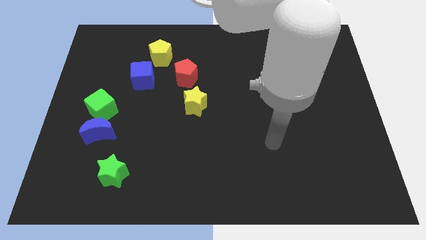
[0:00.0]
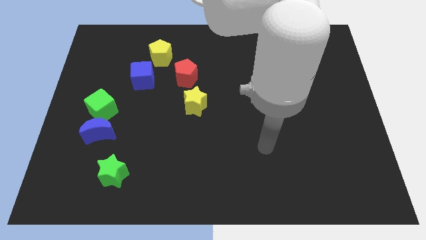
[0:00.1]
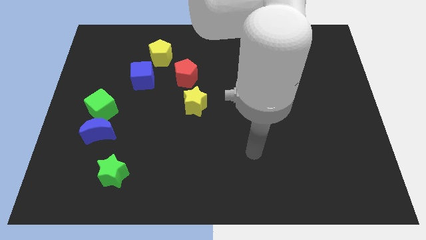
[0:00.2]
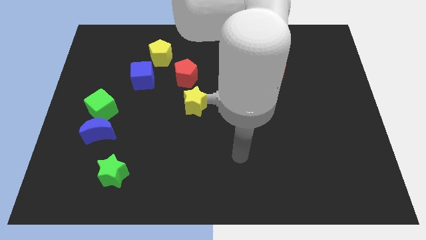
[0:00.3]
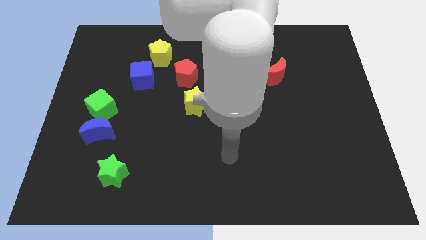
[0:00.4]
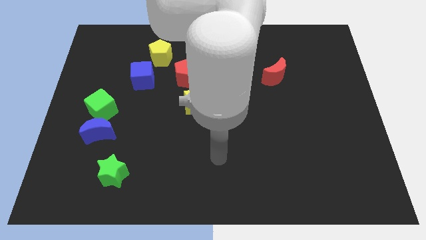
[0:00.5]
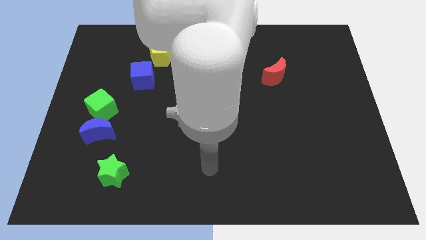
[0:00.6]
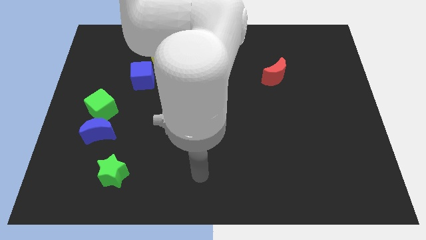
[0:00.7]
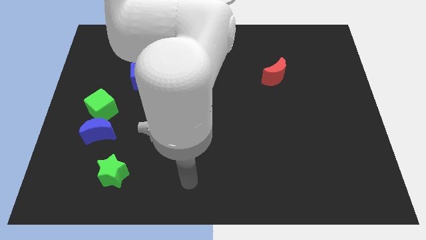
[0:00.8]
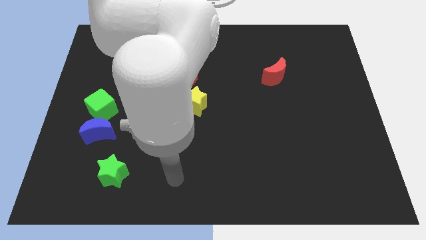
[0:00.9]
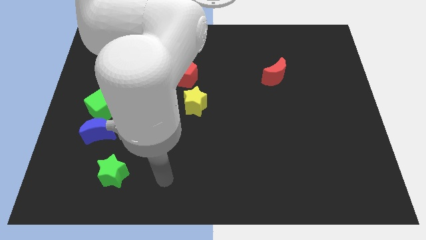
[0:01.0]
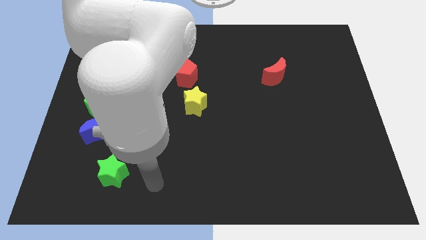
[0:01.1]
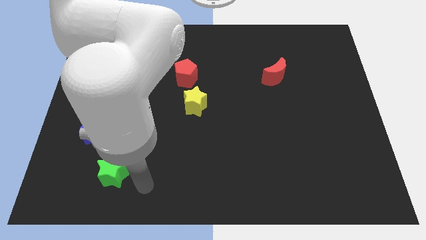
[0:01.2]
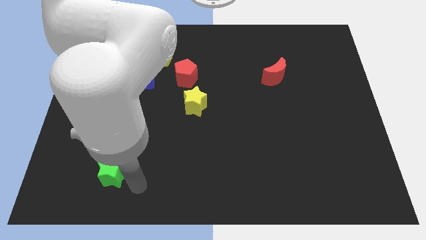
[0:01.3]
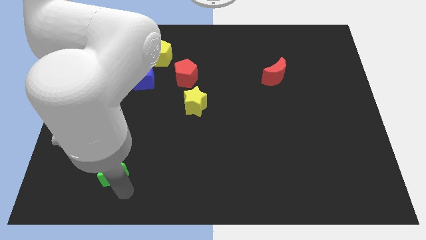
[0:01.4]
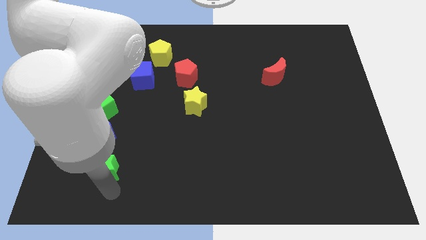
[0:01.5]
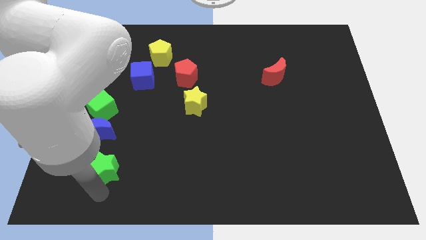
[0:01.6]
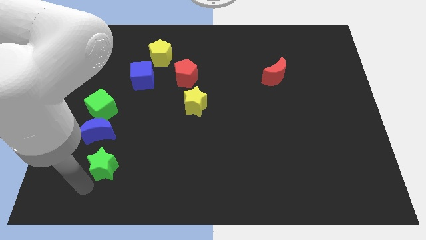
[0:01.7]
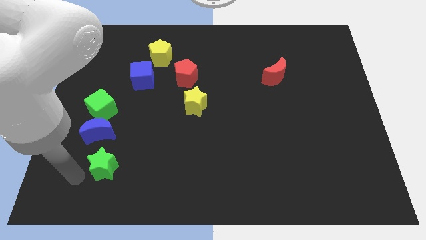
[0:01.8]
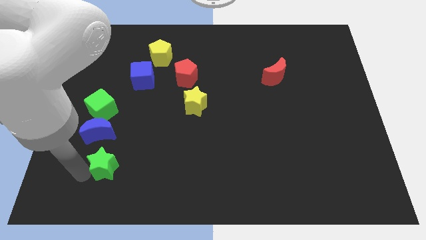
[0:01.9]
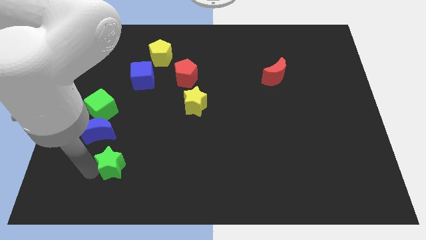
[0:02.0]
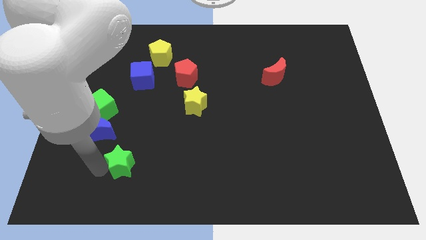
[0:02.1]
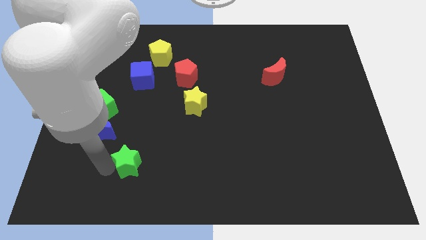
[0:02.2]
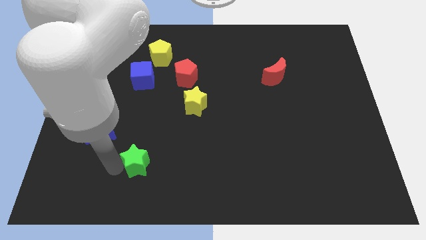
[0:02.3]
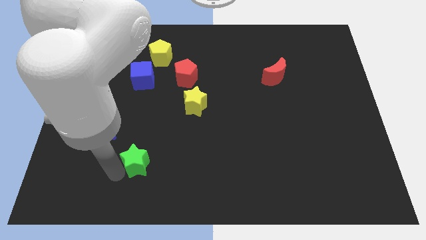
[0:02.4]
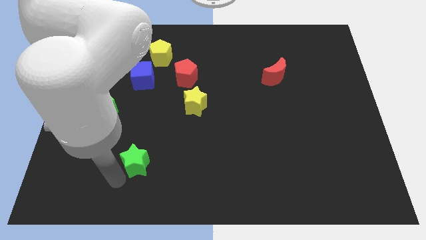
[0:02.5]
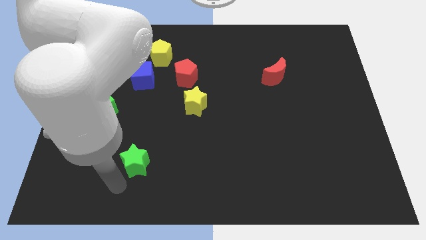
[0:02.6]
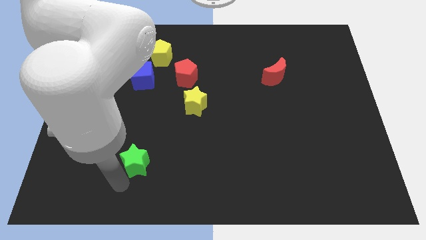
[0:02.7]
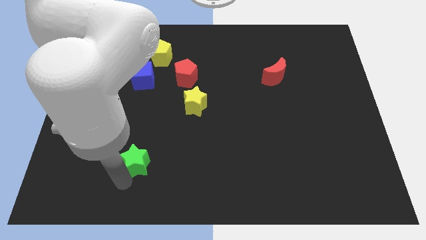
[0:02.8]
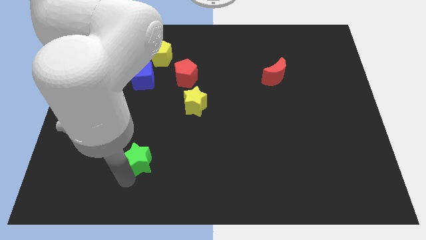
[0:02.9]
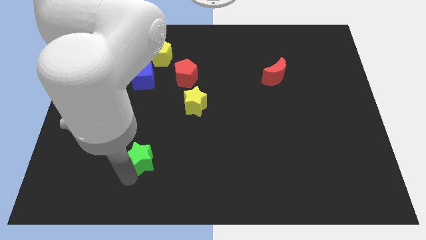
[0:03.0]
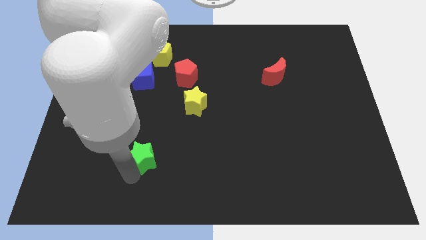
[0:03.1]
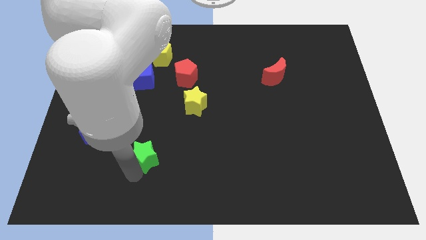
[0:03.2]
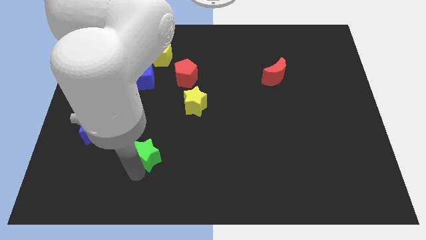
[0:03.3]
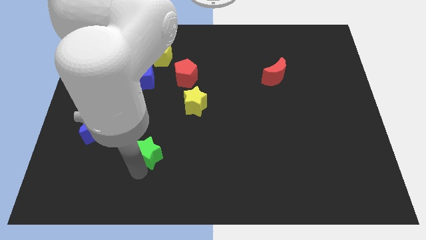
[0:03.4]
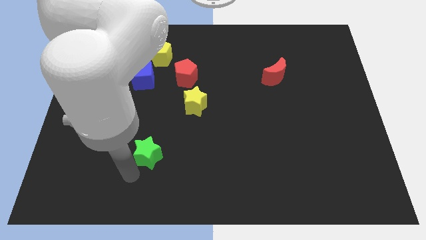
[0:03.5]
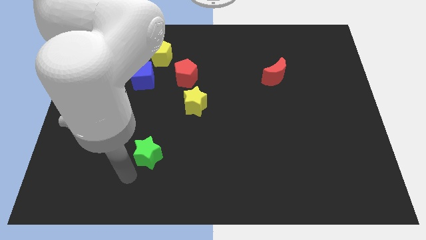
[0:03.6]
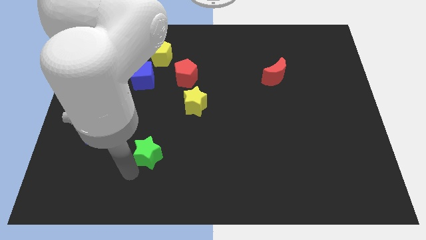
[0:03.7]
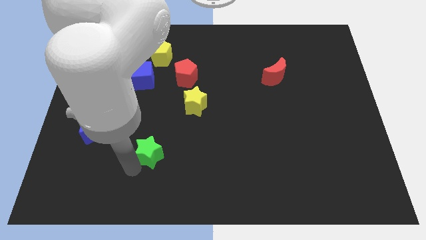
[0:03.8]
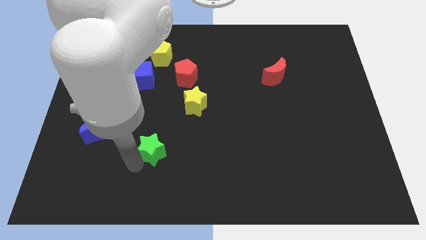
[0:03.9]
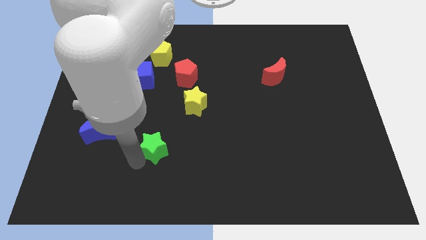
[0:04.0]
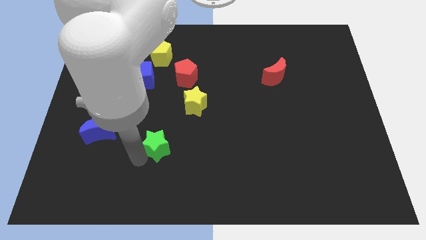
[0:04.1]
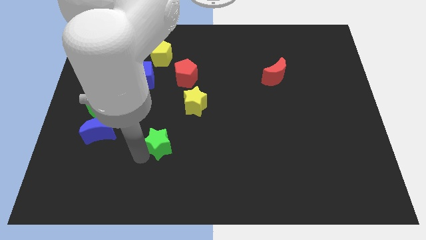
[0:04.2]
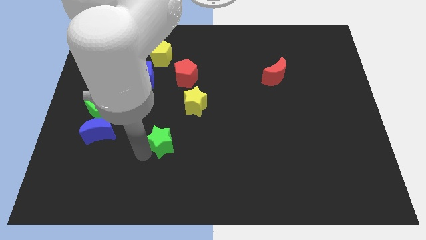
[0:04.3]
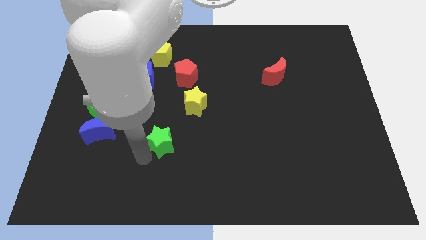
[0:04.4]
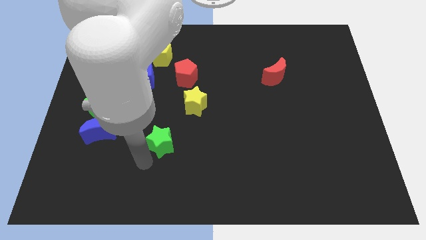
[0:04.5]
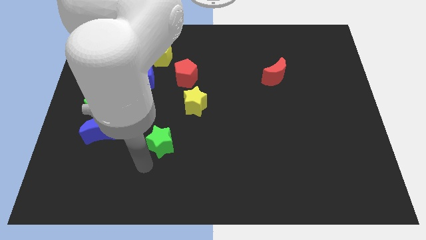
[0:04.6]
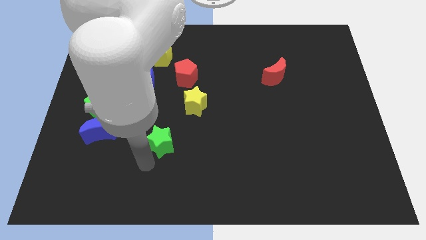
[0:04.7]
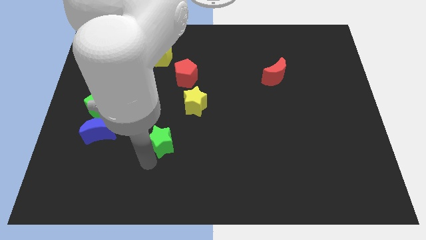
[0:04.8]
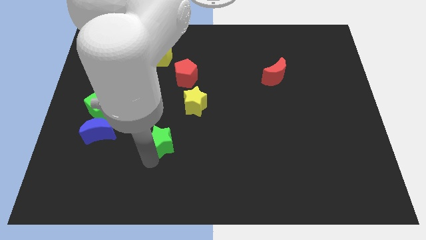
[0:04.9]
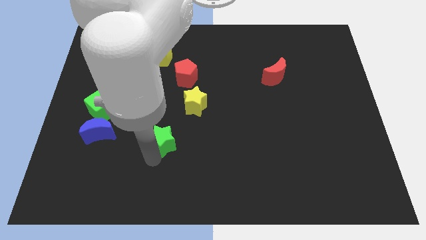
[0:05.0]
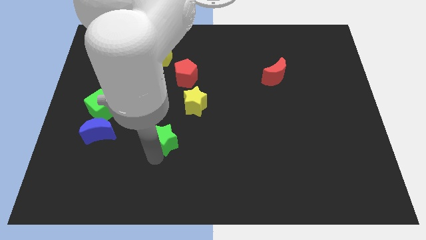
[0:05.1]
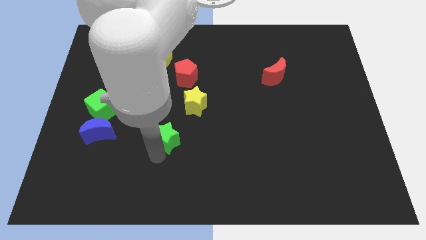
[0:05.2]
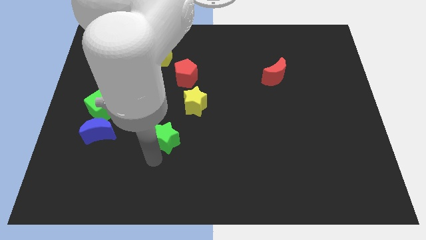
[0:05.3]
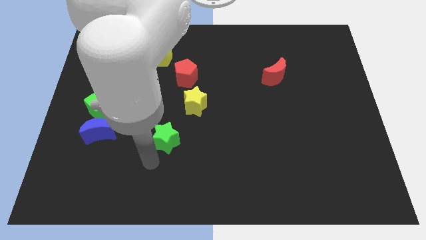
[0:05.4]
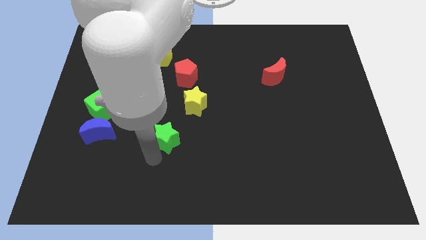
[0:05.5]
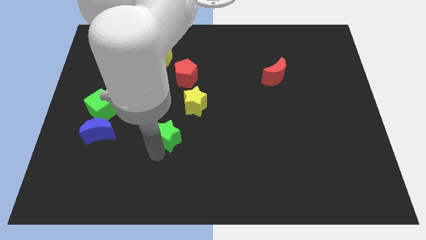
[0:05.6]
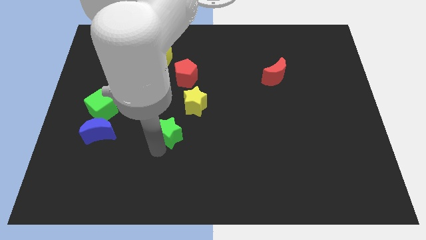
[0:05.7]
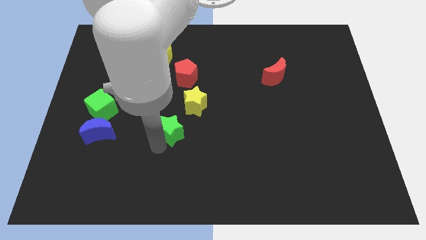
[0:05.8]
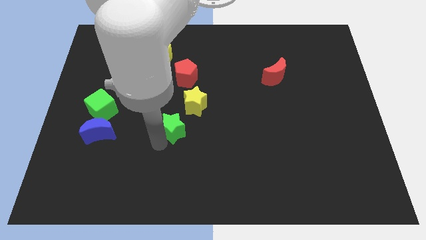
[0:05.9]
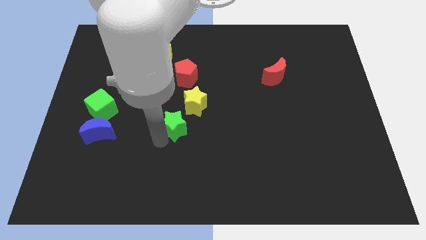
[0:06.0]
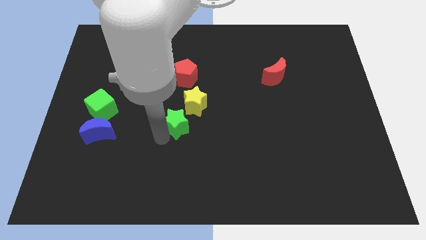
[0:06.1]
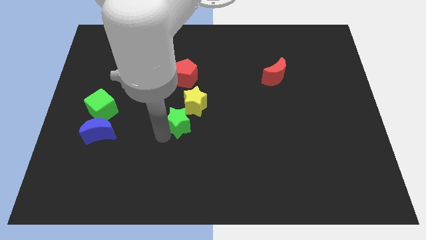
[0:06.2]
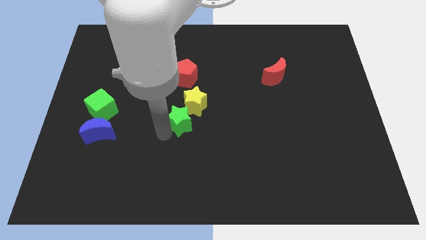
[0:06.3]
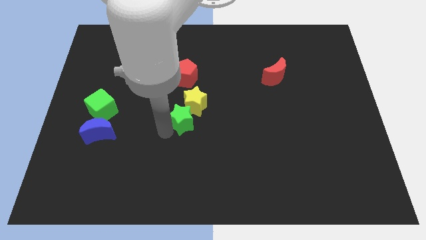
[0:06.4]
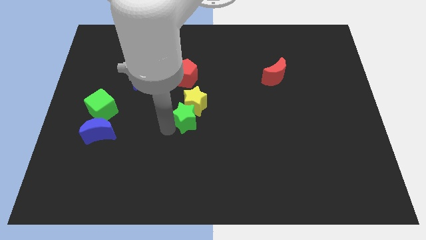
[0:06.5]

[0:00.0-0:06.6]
move the green star upwards and then right

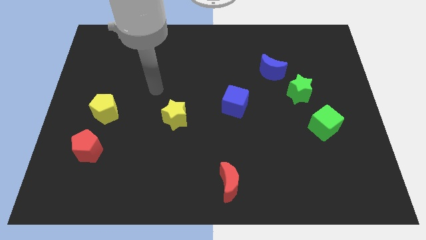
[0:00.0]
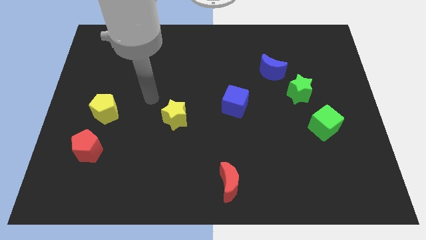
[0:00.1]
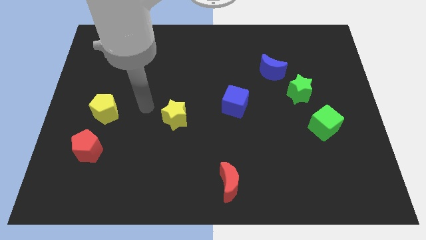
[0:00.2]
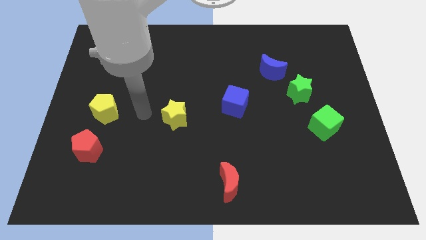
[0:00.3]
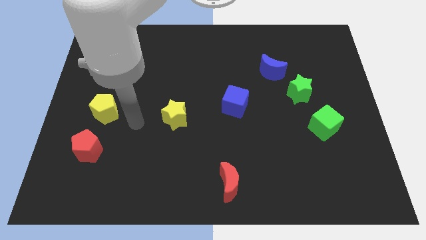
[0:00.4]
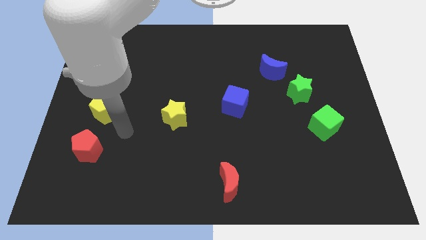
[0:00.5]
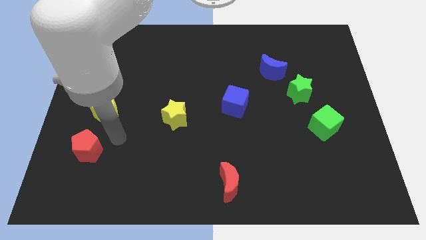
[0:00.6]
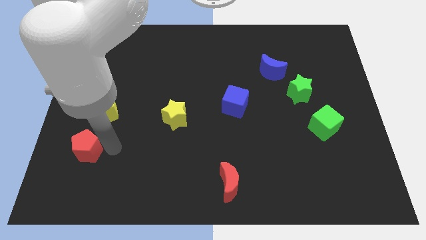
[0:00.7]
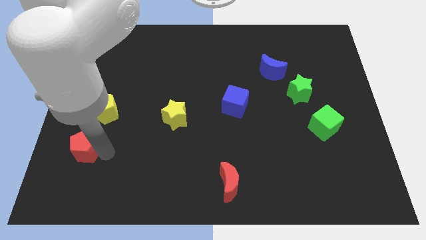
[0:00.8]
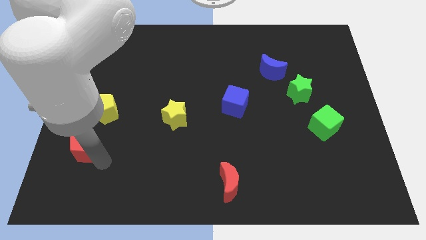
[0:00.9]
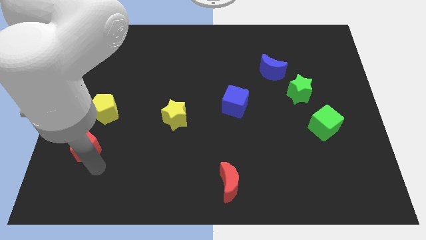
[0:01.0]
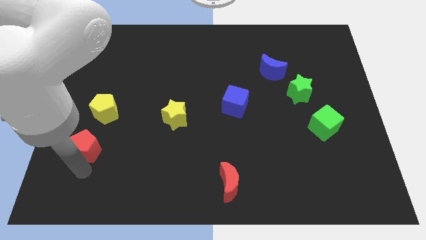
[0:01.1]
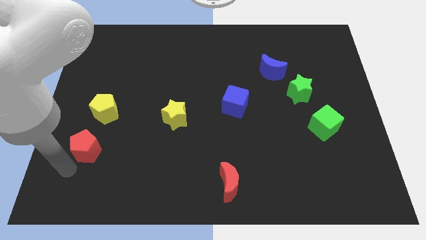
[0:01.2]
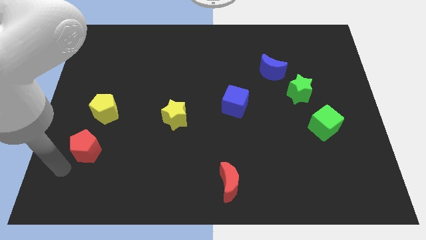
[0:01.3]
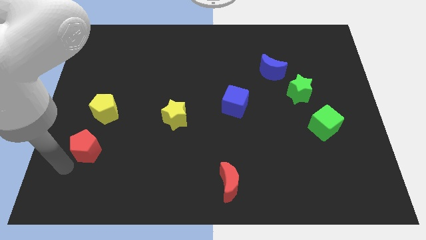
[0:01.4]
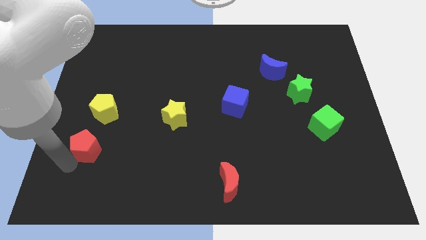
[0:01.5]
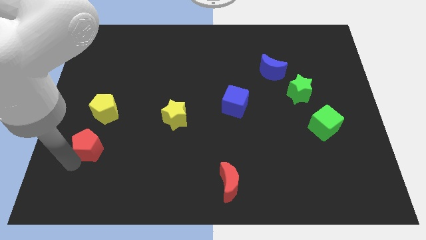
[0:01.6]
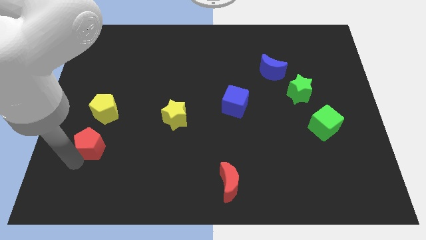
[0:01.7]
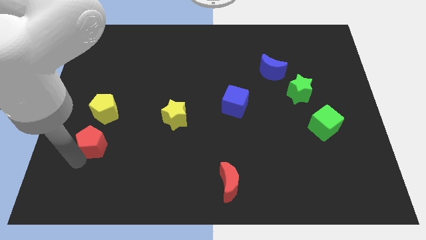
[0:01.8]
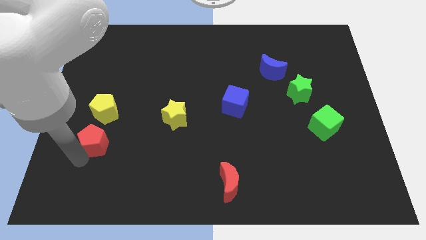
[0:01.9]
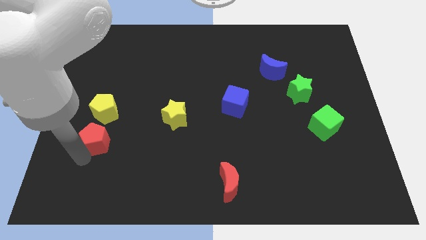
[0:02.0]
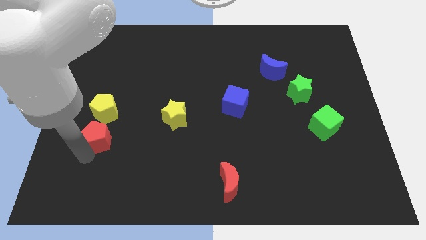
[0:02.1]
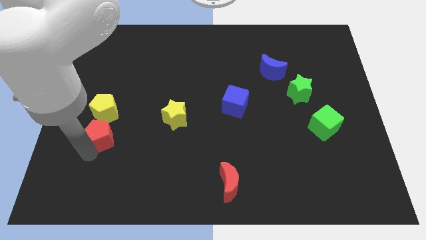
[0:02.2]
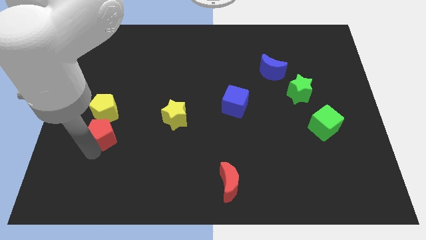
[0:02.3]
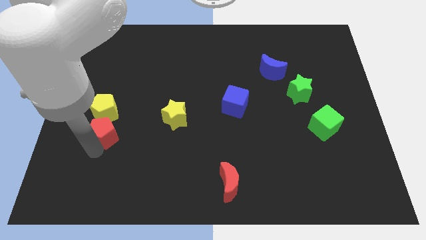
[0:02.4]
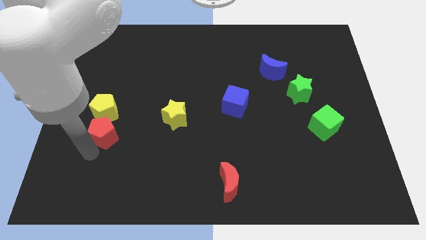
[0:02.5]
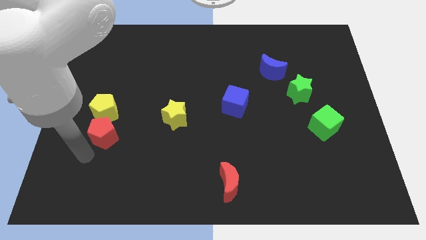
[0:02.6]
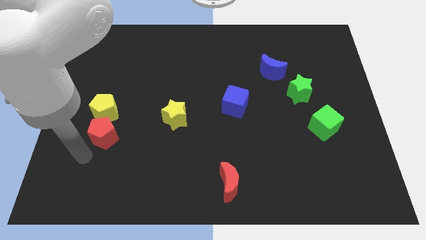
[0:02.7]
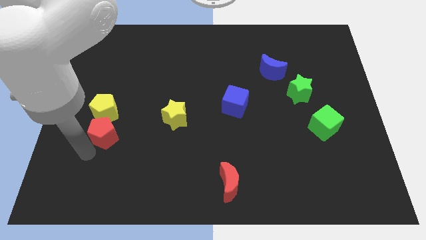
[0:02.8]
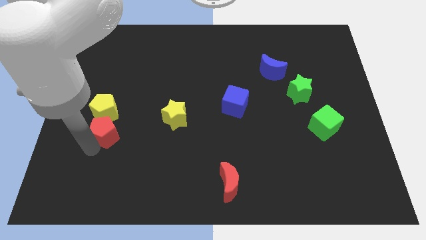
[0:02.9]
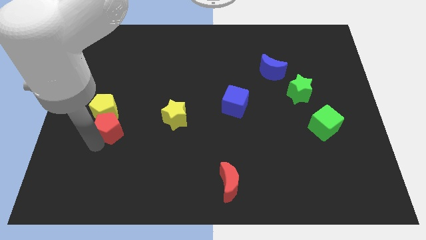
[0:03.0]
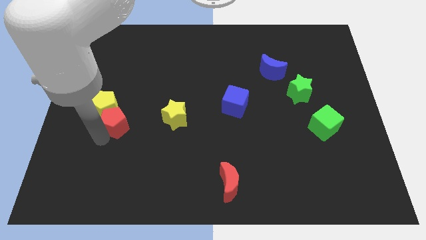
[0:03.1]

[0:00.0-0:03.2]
slide the red pentagon a bit up and then right
